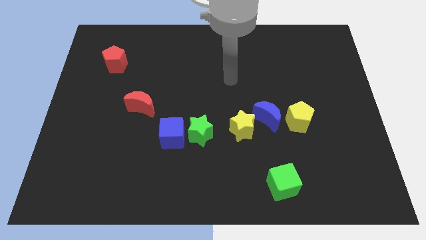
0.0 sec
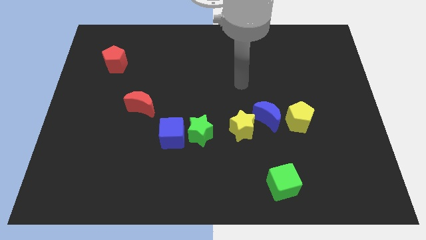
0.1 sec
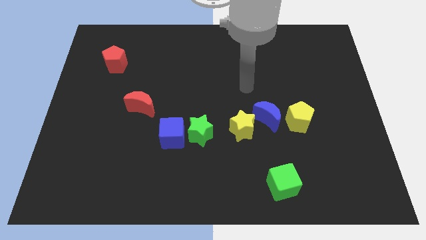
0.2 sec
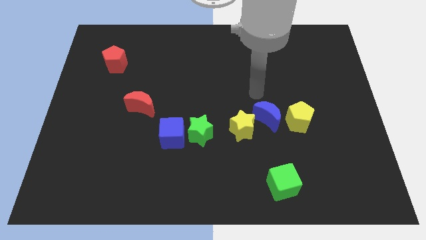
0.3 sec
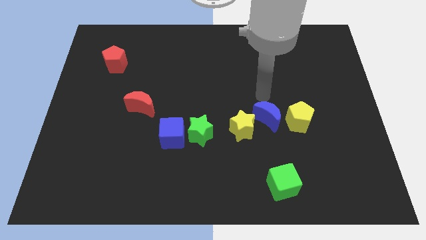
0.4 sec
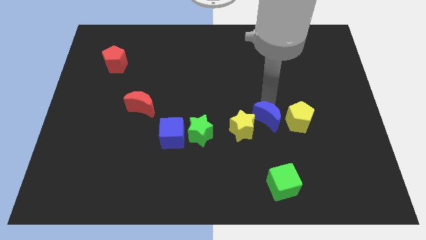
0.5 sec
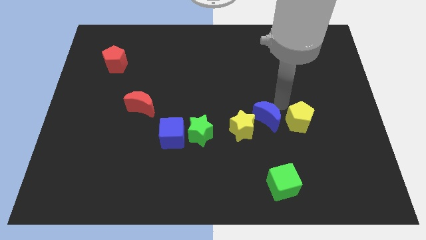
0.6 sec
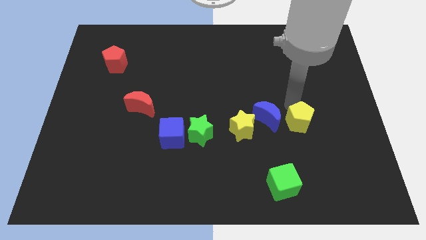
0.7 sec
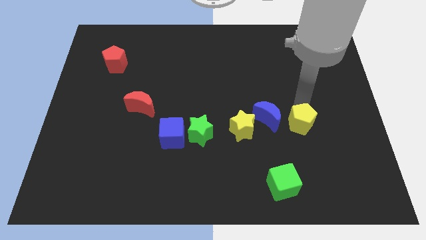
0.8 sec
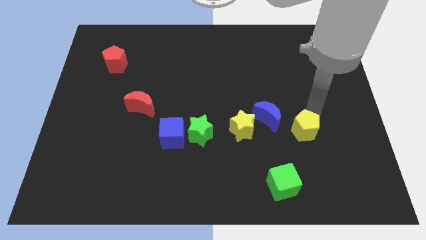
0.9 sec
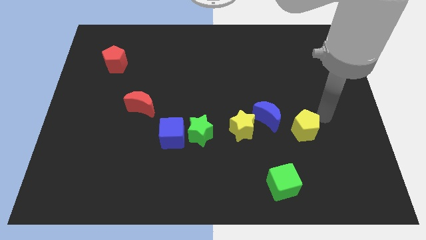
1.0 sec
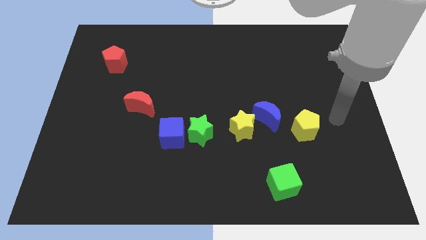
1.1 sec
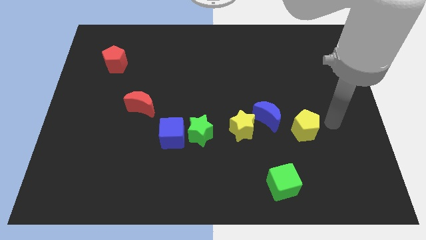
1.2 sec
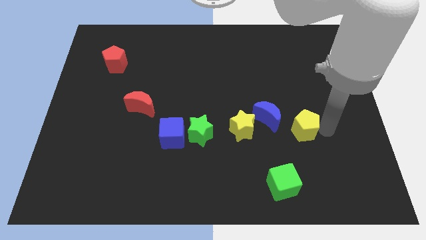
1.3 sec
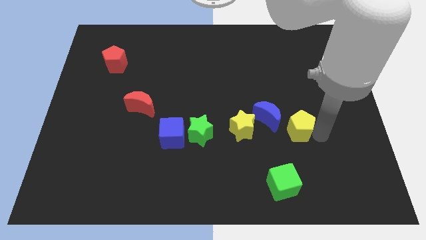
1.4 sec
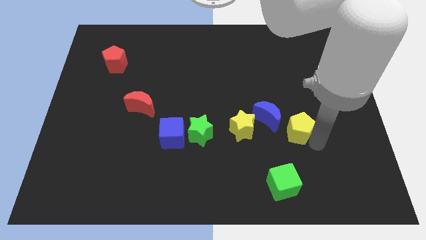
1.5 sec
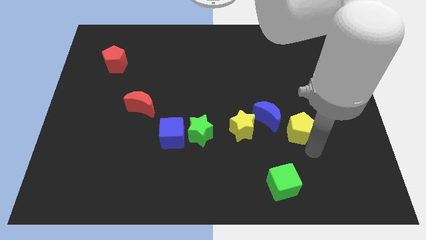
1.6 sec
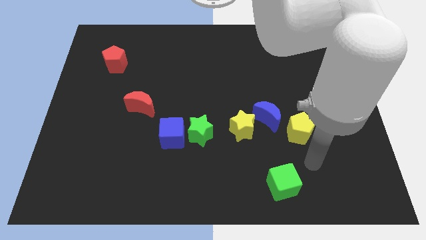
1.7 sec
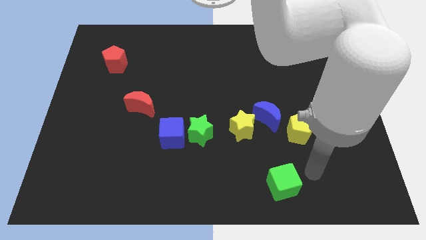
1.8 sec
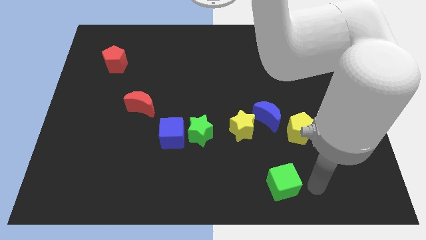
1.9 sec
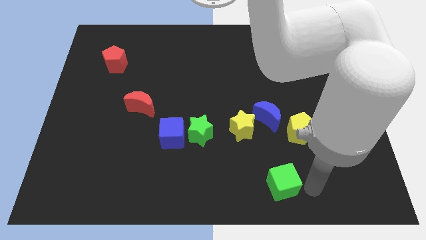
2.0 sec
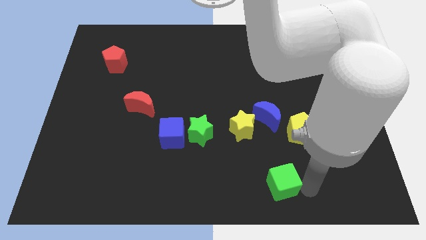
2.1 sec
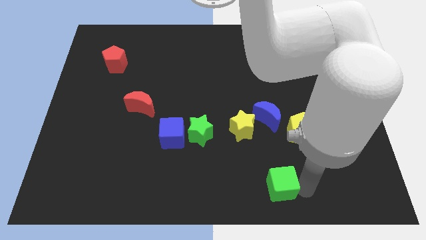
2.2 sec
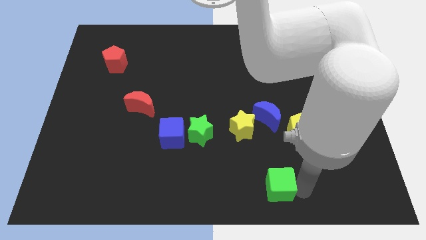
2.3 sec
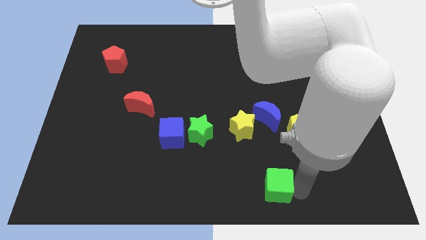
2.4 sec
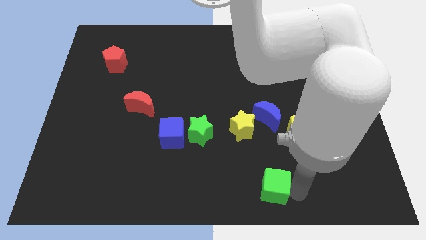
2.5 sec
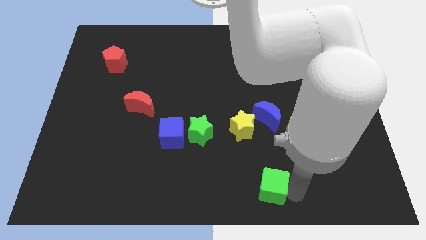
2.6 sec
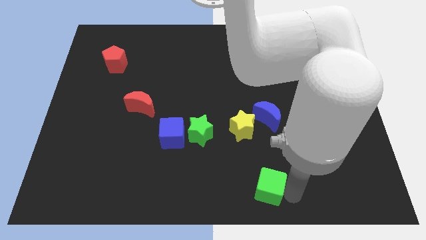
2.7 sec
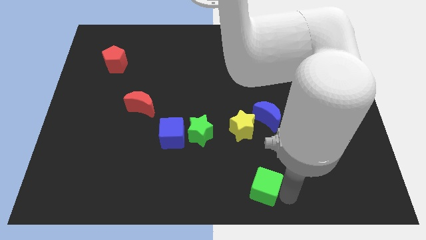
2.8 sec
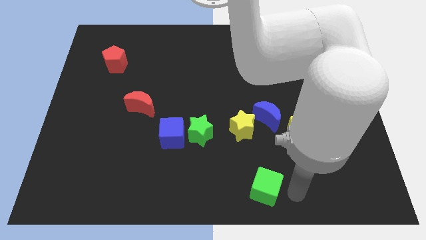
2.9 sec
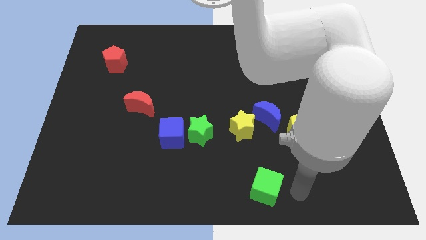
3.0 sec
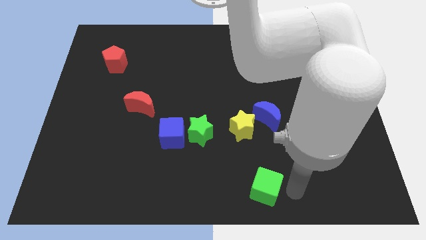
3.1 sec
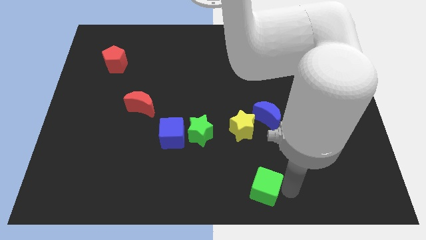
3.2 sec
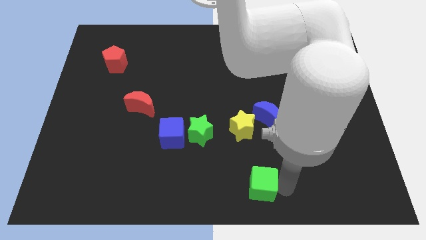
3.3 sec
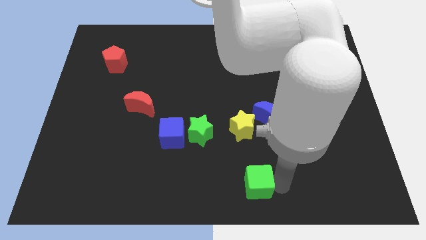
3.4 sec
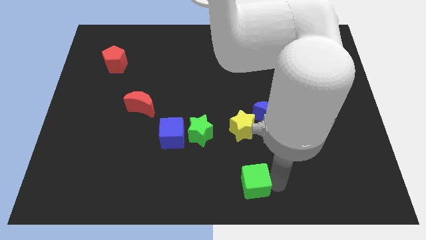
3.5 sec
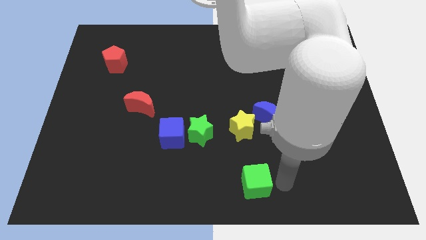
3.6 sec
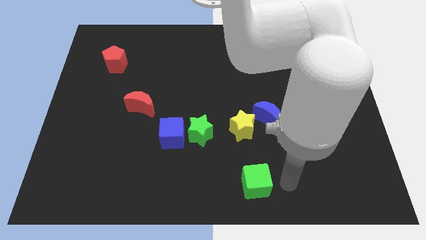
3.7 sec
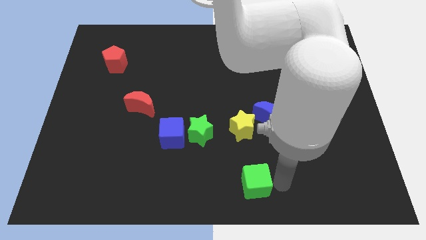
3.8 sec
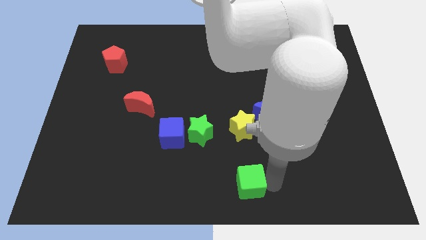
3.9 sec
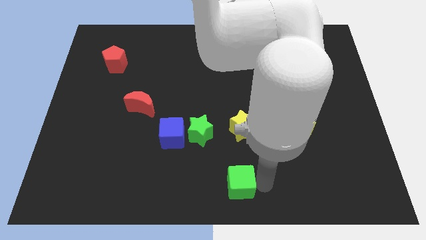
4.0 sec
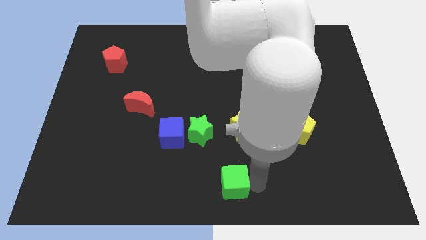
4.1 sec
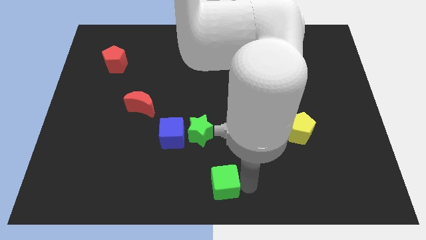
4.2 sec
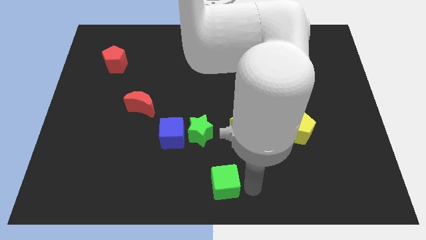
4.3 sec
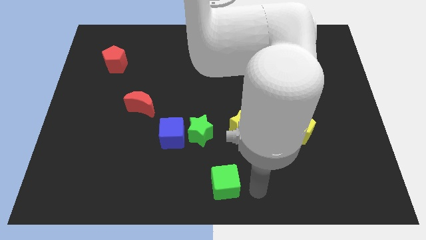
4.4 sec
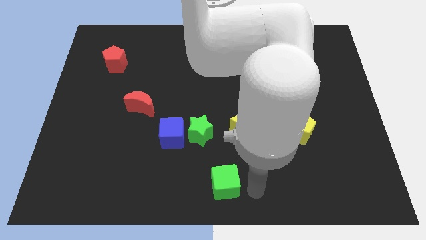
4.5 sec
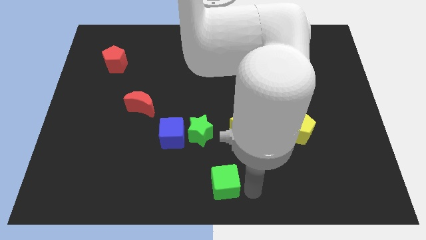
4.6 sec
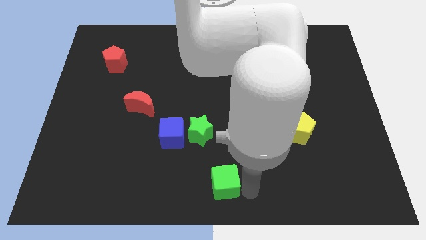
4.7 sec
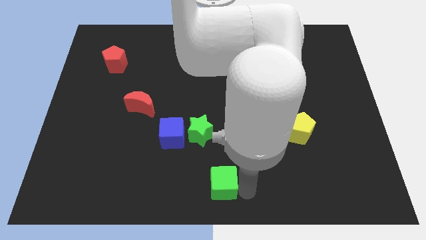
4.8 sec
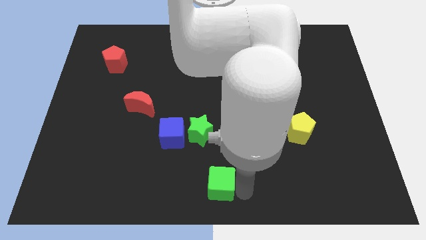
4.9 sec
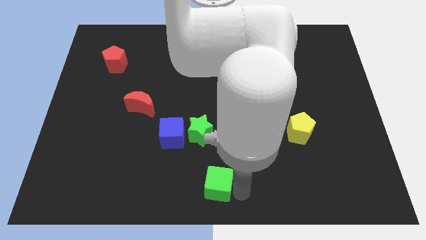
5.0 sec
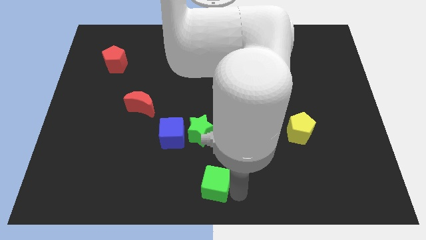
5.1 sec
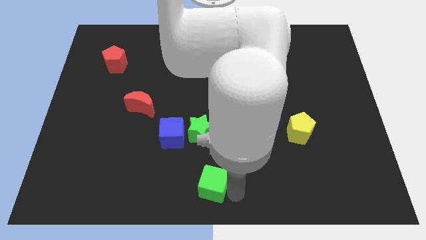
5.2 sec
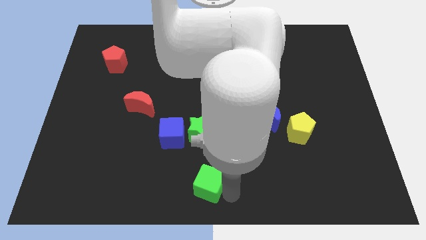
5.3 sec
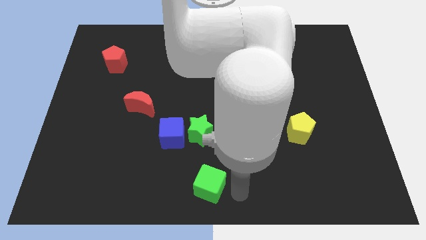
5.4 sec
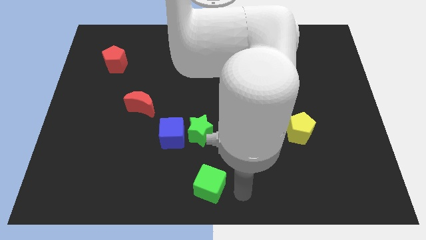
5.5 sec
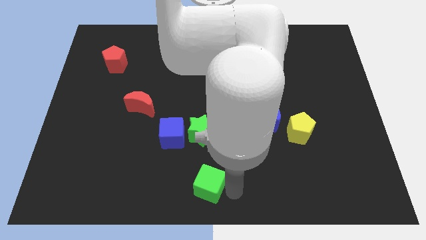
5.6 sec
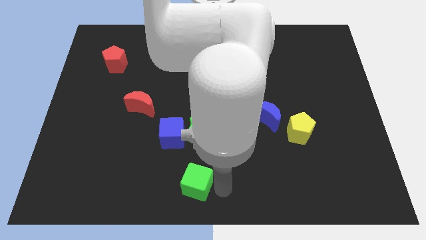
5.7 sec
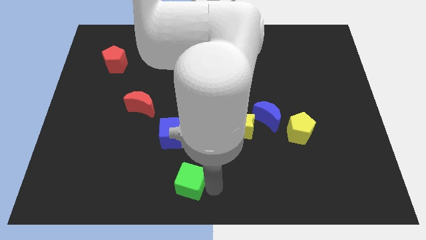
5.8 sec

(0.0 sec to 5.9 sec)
slide the green cube below the blue cube

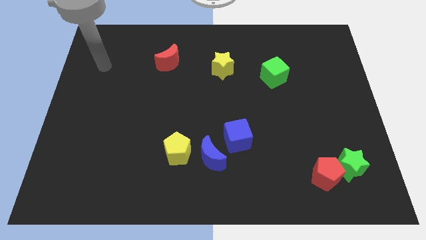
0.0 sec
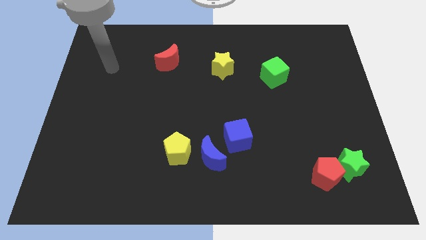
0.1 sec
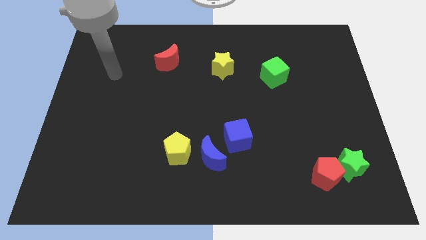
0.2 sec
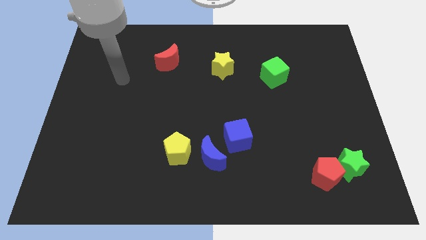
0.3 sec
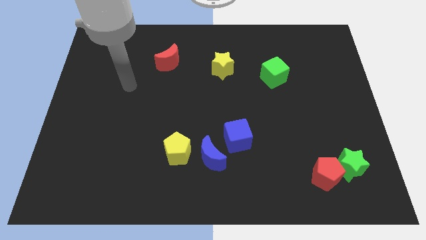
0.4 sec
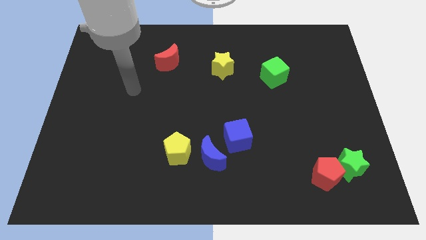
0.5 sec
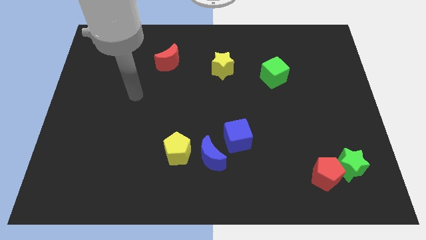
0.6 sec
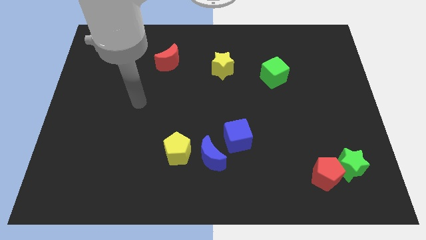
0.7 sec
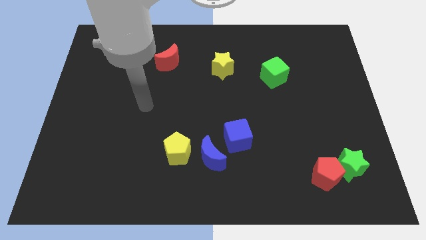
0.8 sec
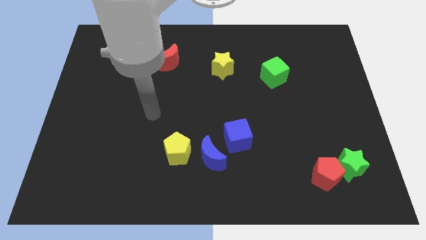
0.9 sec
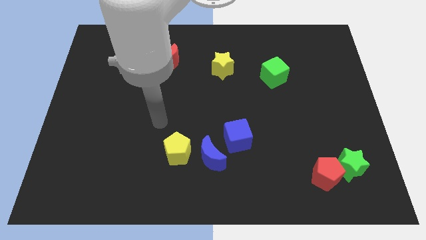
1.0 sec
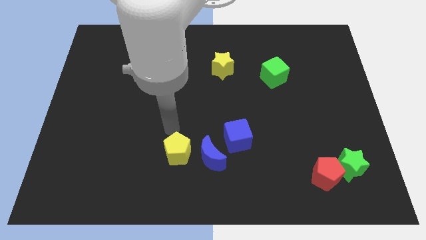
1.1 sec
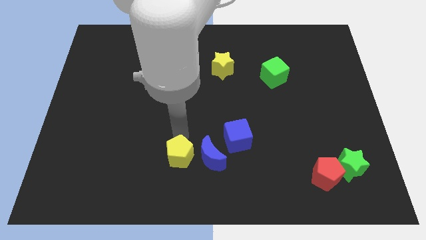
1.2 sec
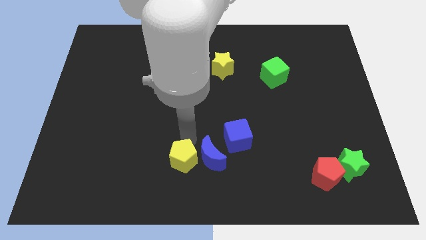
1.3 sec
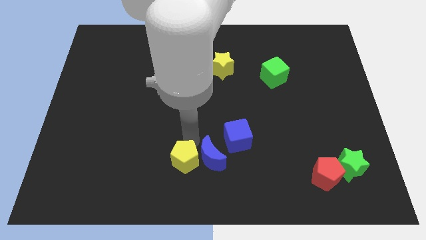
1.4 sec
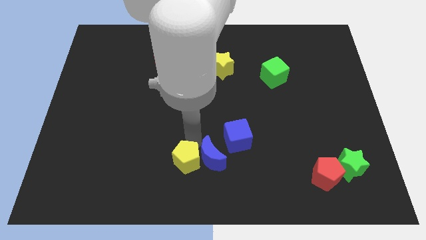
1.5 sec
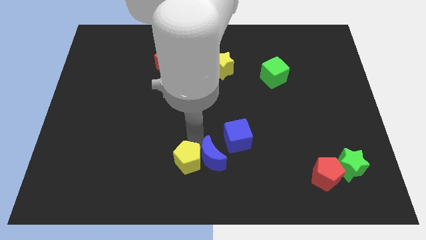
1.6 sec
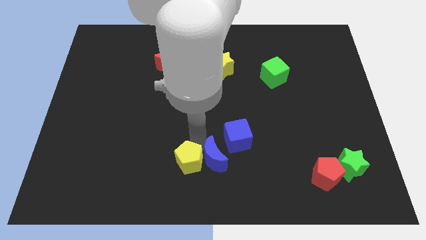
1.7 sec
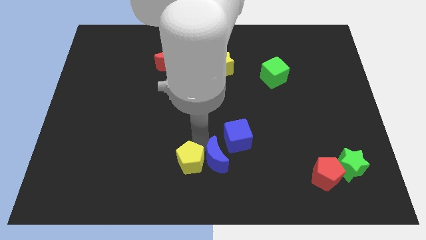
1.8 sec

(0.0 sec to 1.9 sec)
move the blue moon to the bottom of the blue cube
